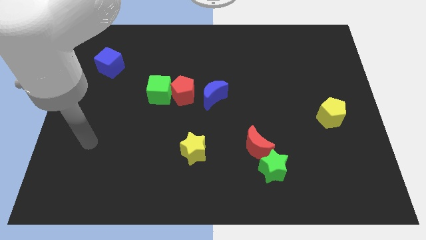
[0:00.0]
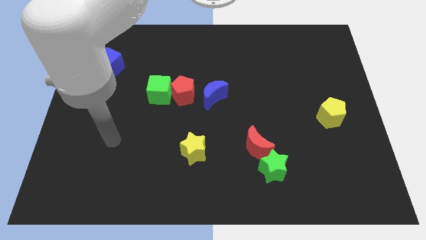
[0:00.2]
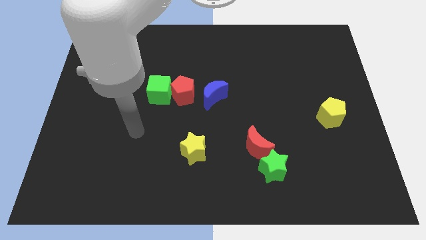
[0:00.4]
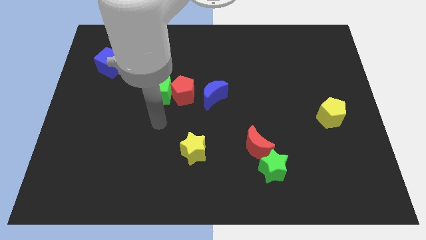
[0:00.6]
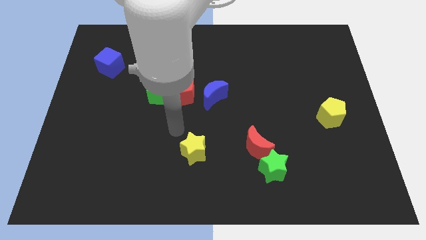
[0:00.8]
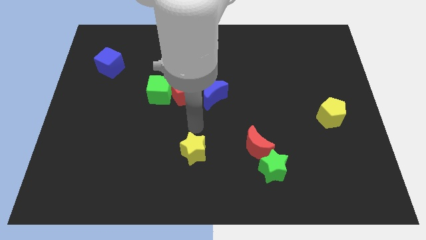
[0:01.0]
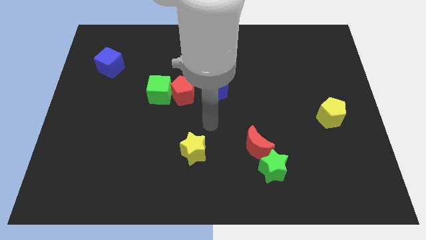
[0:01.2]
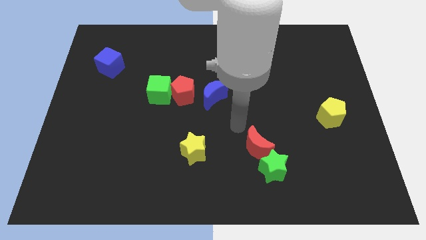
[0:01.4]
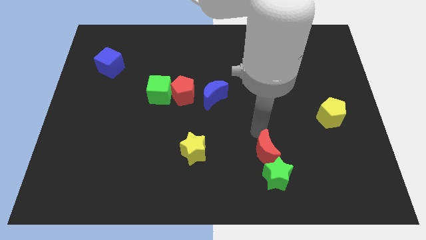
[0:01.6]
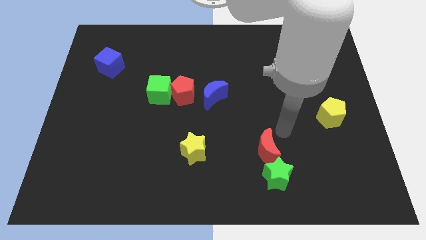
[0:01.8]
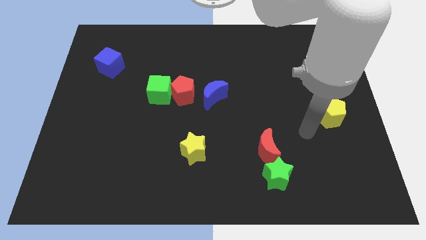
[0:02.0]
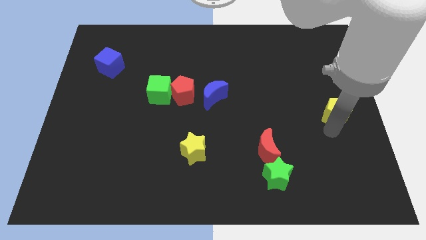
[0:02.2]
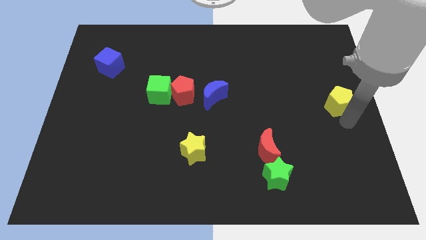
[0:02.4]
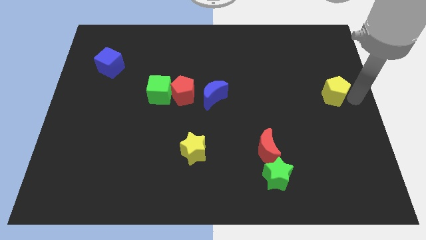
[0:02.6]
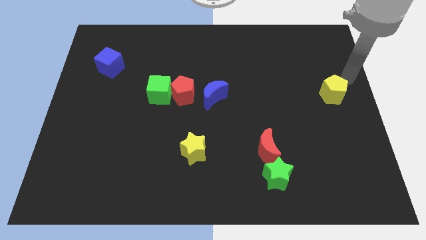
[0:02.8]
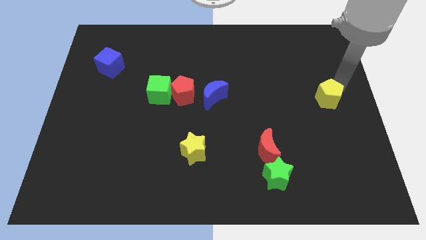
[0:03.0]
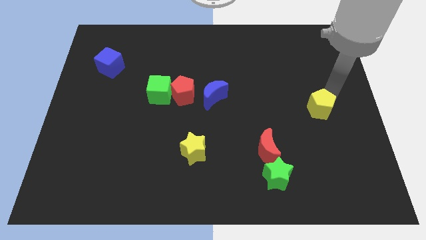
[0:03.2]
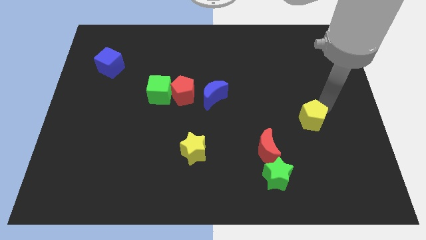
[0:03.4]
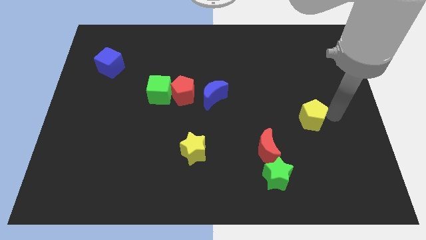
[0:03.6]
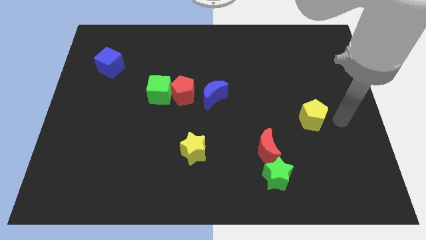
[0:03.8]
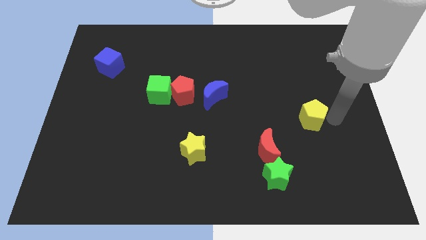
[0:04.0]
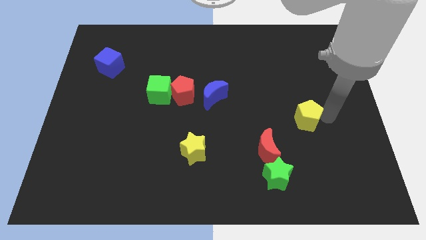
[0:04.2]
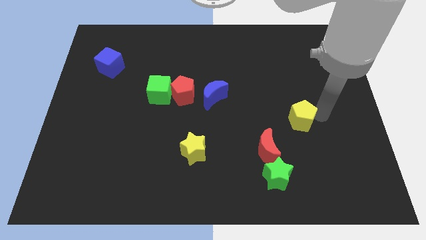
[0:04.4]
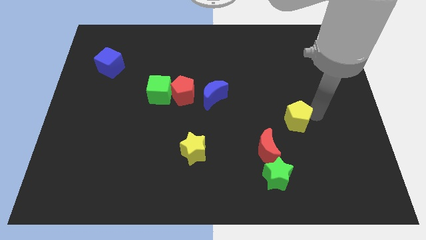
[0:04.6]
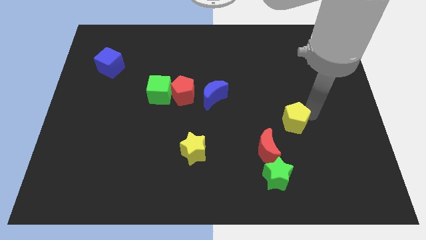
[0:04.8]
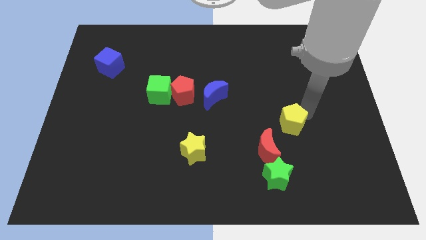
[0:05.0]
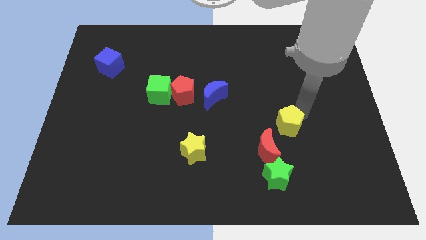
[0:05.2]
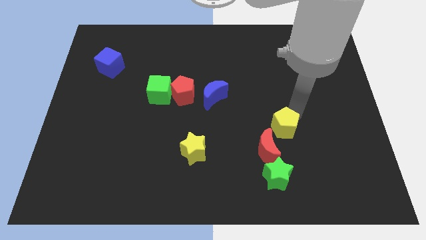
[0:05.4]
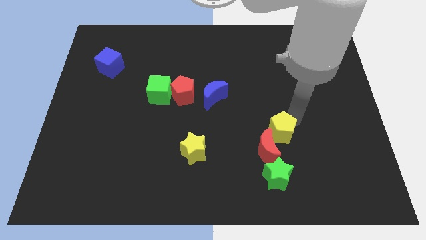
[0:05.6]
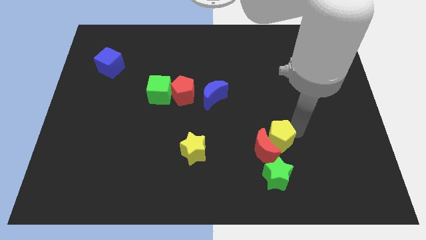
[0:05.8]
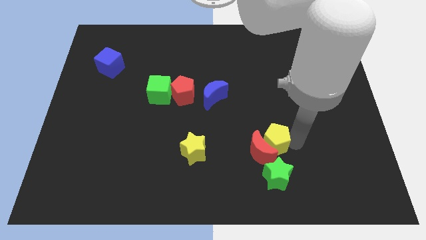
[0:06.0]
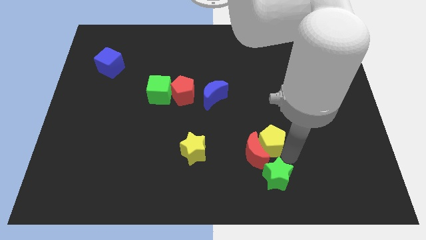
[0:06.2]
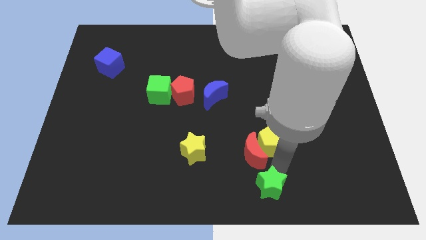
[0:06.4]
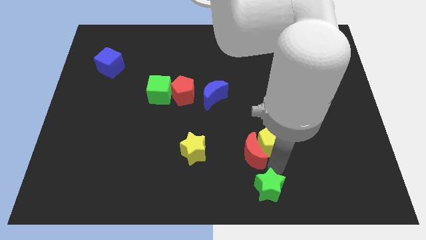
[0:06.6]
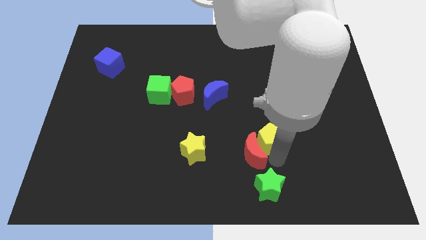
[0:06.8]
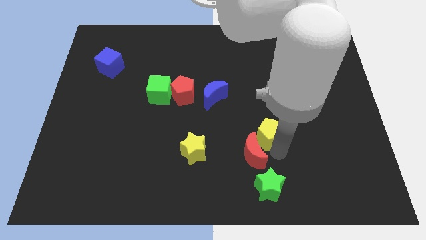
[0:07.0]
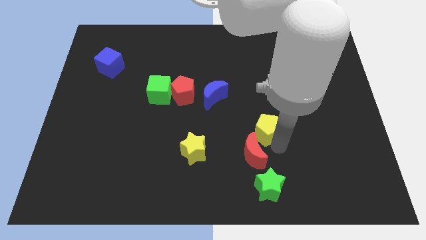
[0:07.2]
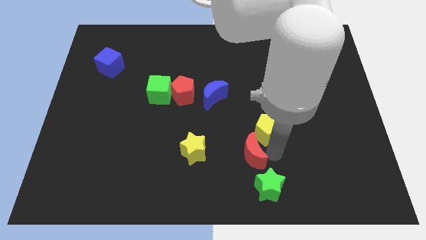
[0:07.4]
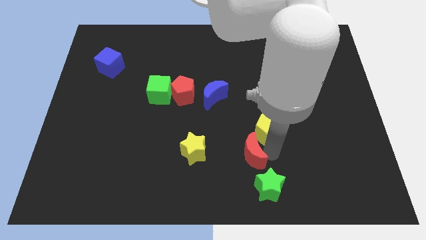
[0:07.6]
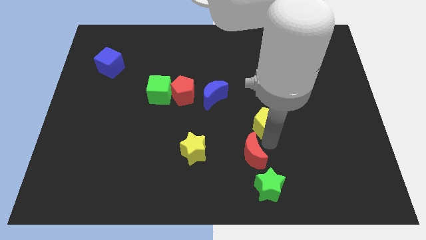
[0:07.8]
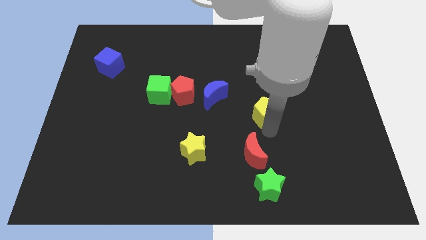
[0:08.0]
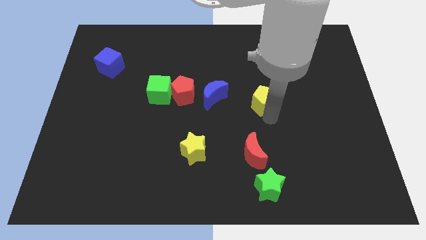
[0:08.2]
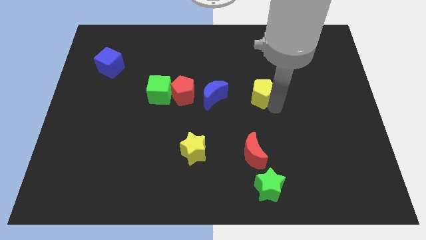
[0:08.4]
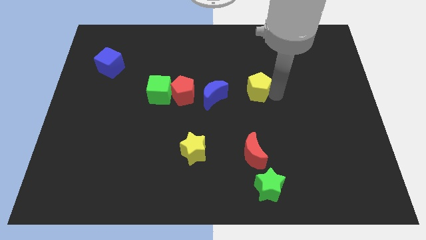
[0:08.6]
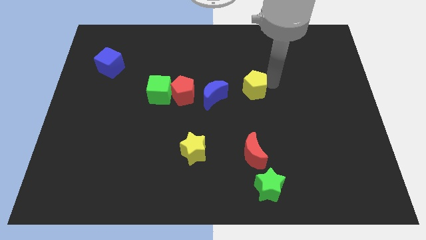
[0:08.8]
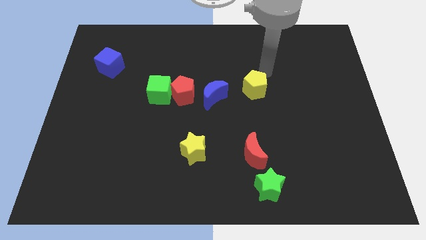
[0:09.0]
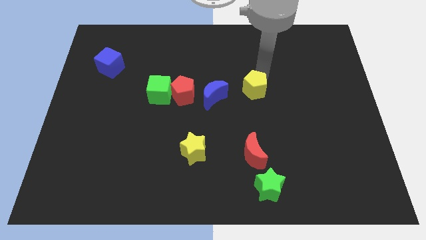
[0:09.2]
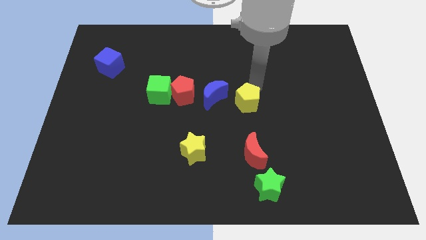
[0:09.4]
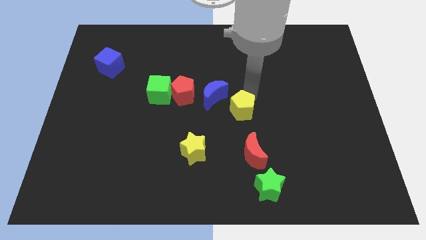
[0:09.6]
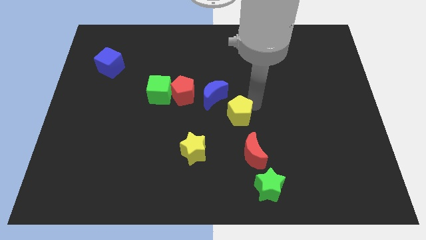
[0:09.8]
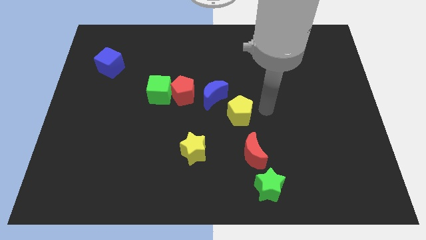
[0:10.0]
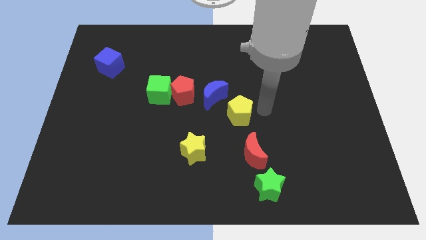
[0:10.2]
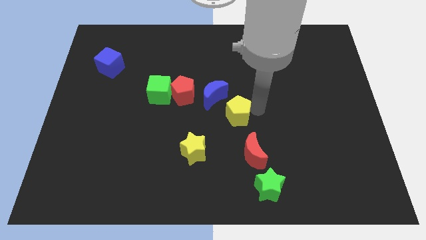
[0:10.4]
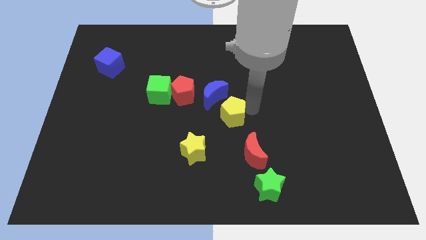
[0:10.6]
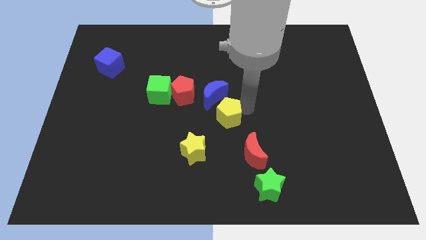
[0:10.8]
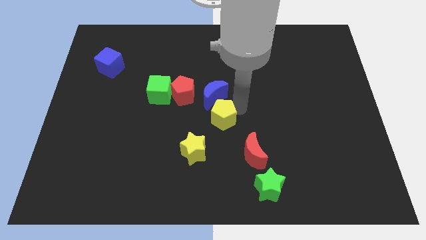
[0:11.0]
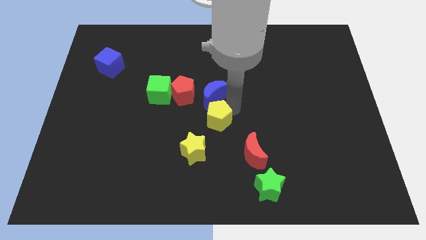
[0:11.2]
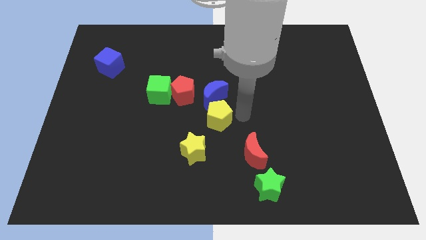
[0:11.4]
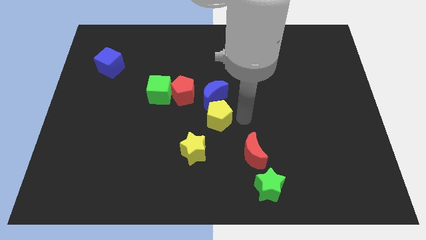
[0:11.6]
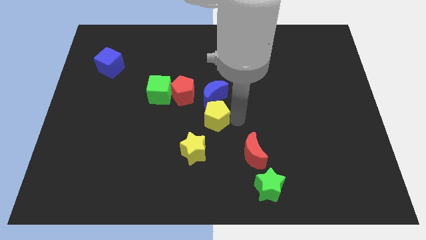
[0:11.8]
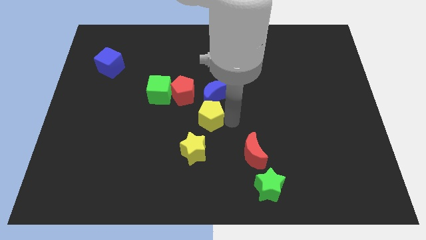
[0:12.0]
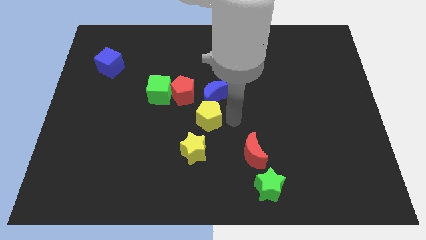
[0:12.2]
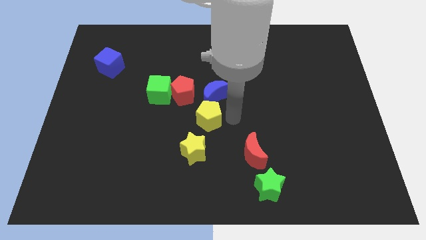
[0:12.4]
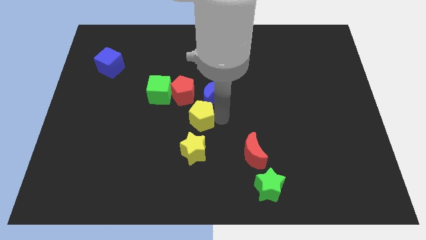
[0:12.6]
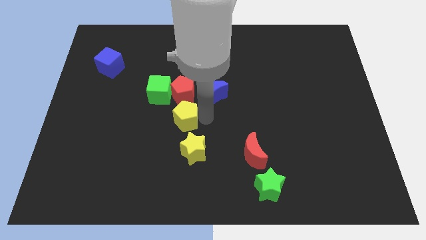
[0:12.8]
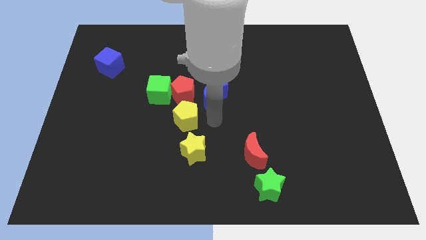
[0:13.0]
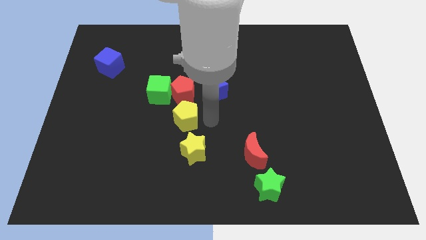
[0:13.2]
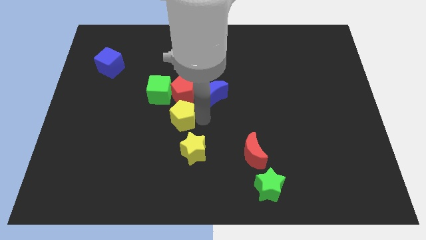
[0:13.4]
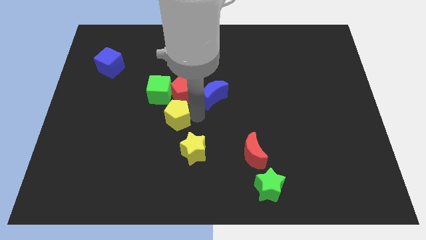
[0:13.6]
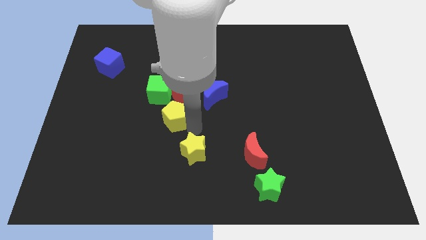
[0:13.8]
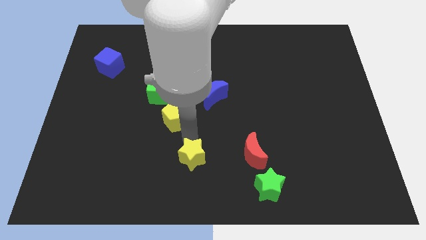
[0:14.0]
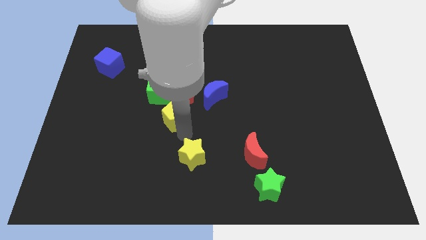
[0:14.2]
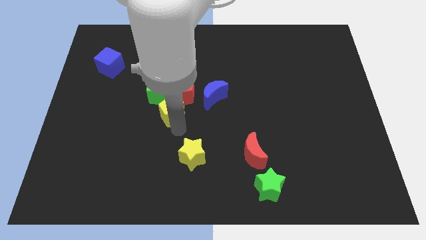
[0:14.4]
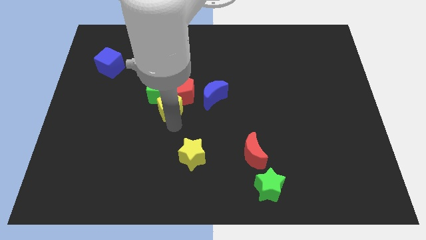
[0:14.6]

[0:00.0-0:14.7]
slide the yellow pentagon next to the green cube

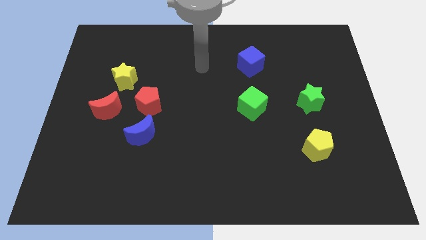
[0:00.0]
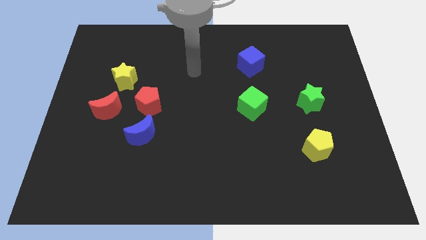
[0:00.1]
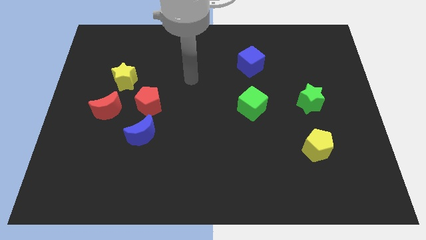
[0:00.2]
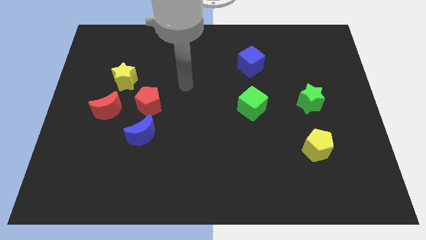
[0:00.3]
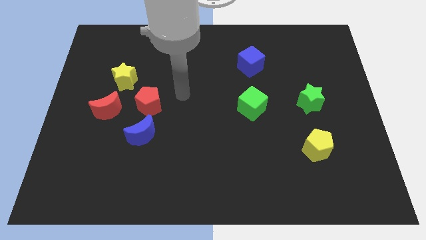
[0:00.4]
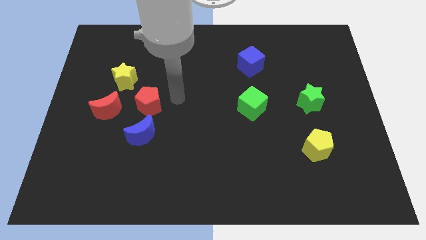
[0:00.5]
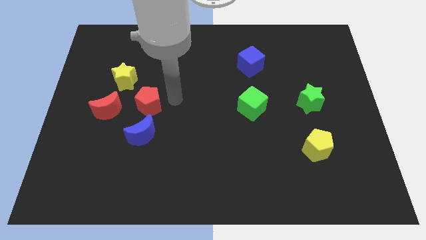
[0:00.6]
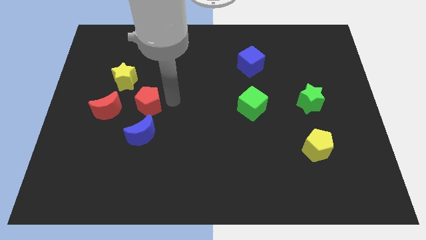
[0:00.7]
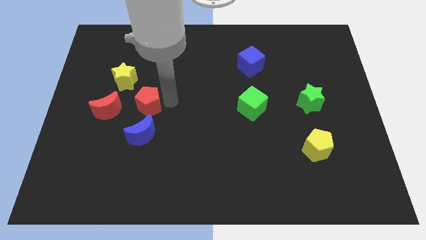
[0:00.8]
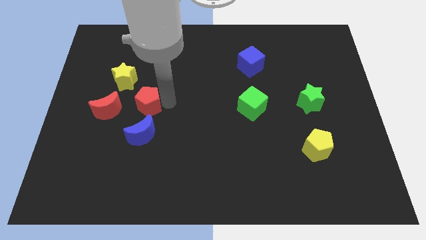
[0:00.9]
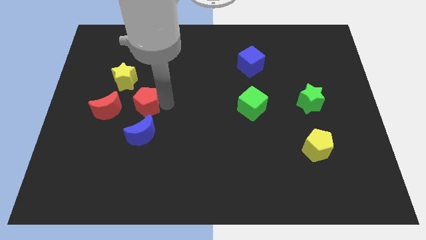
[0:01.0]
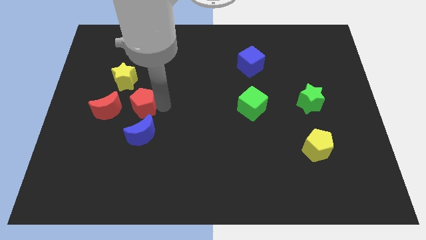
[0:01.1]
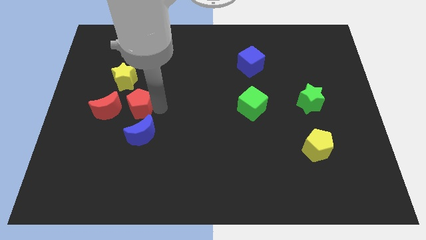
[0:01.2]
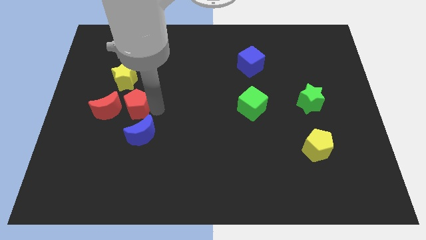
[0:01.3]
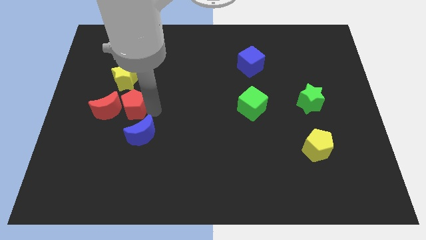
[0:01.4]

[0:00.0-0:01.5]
move the red pentagon next to the red moon
